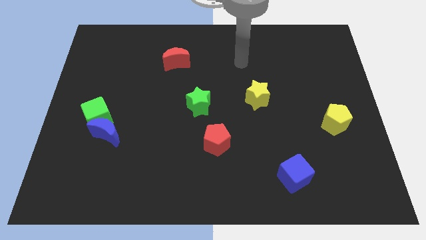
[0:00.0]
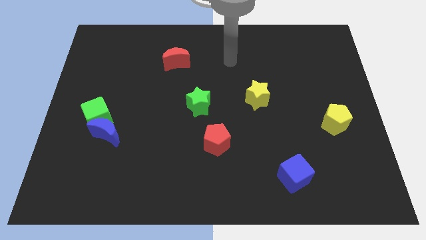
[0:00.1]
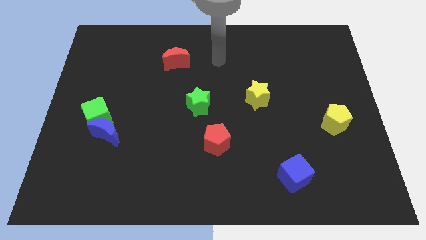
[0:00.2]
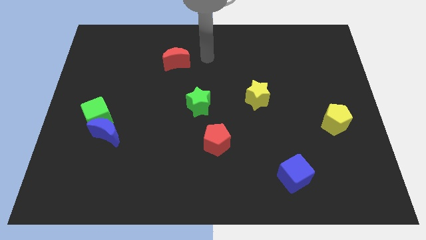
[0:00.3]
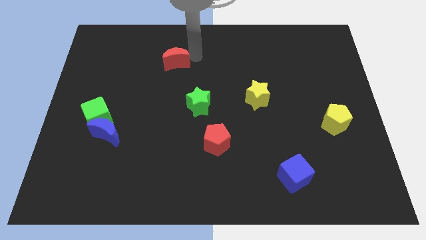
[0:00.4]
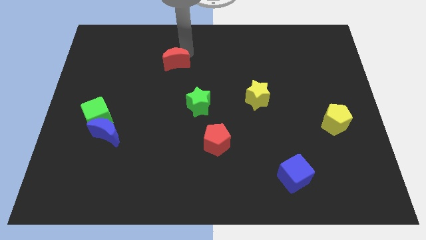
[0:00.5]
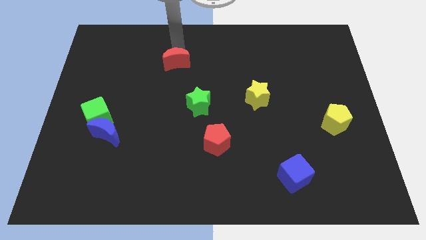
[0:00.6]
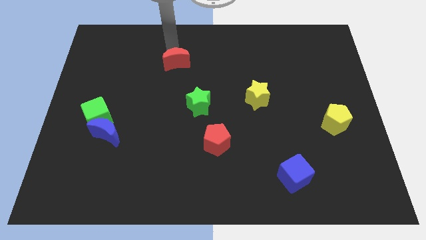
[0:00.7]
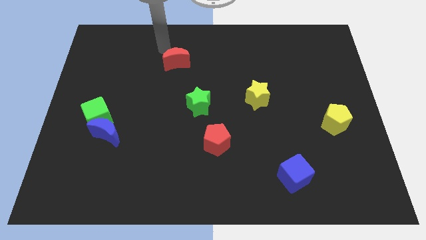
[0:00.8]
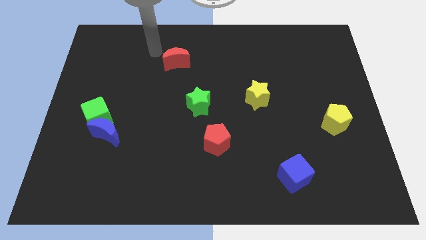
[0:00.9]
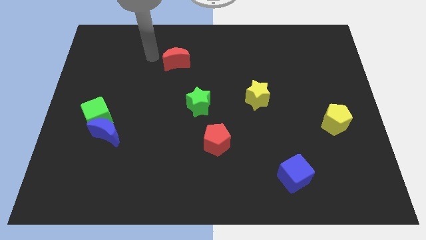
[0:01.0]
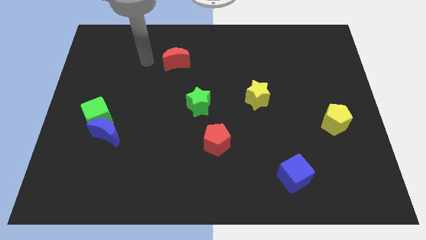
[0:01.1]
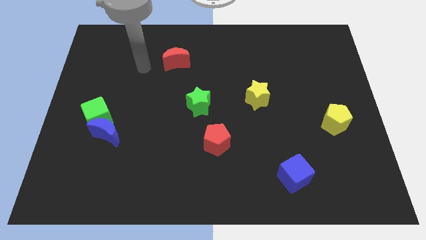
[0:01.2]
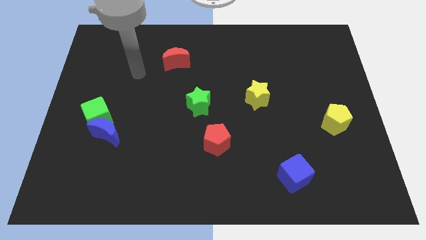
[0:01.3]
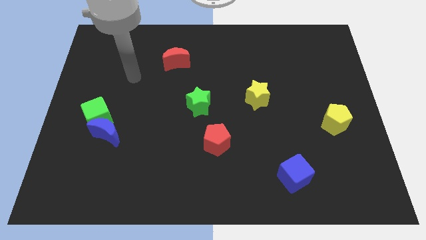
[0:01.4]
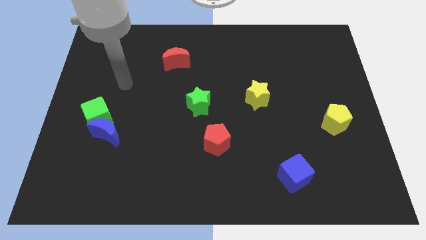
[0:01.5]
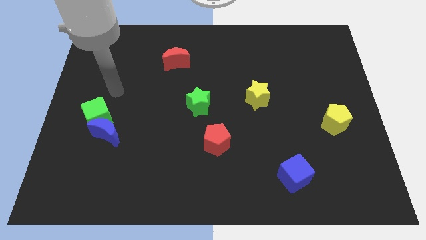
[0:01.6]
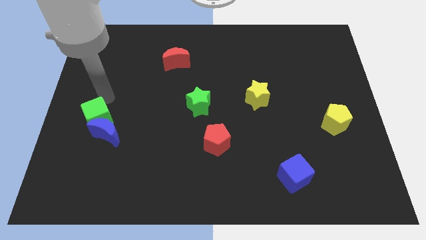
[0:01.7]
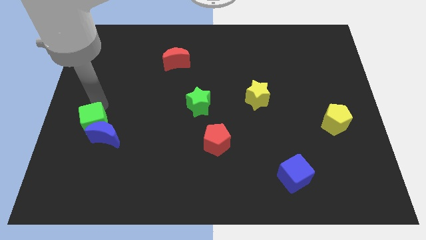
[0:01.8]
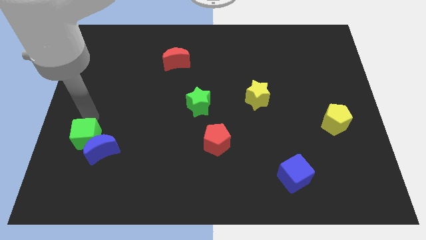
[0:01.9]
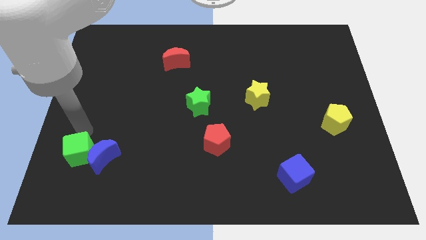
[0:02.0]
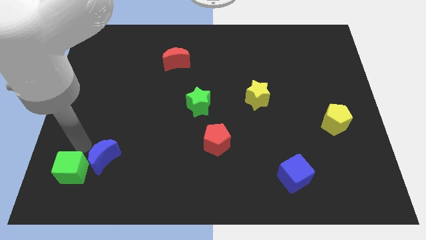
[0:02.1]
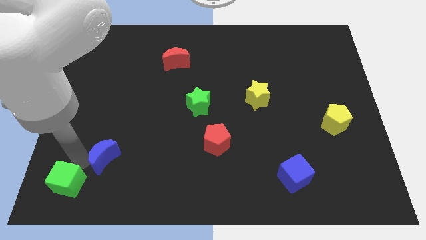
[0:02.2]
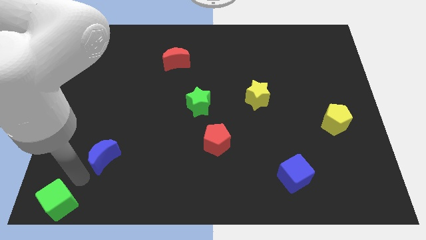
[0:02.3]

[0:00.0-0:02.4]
separate the blue moon from the green cube

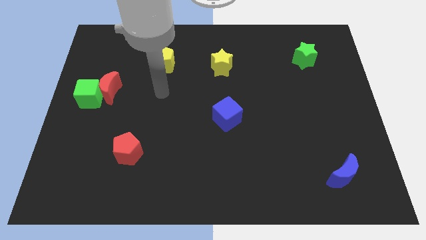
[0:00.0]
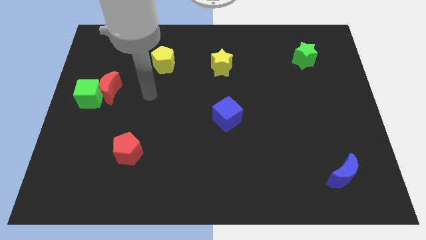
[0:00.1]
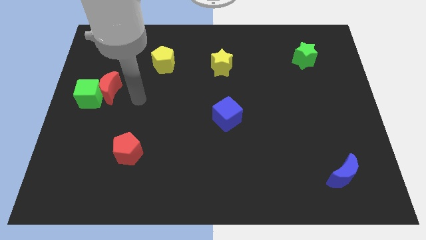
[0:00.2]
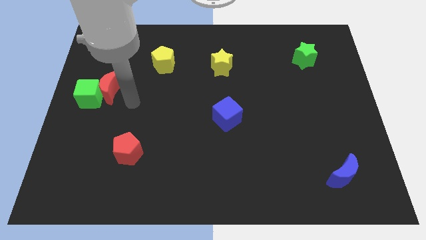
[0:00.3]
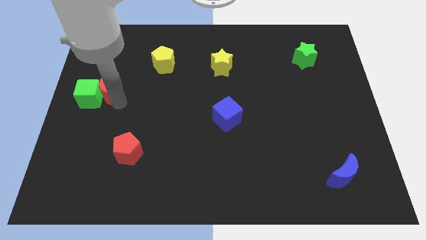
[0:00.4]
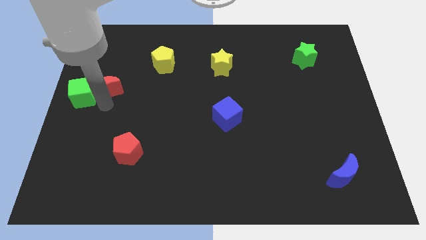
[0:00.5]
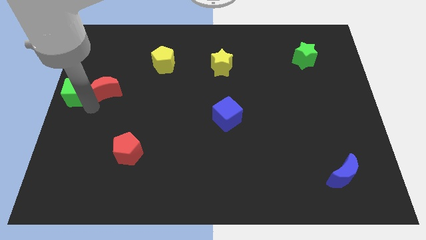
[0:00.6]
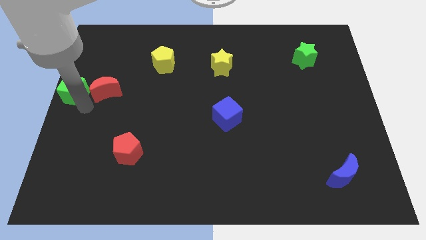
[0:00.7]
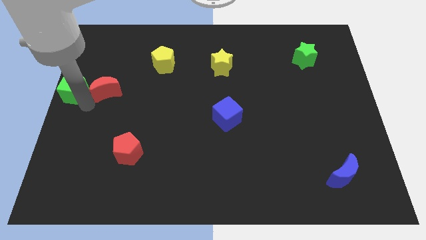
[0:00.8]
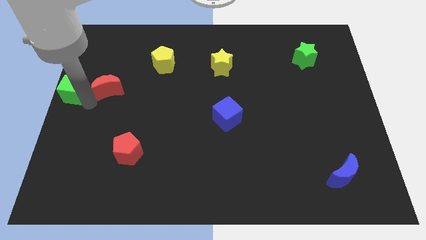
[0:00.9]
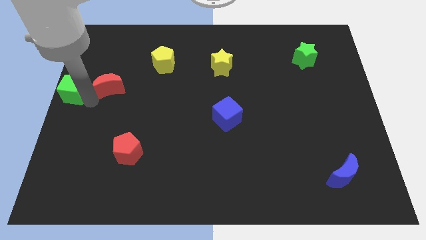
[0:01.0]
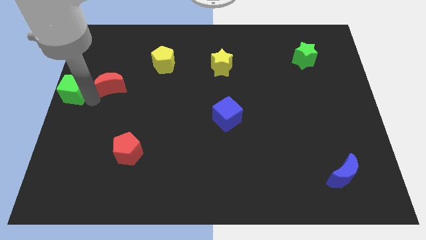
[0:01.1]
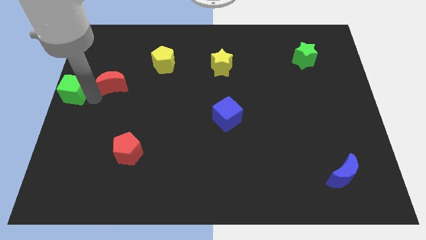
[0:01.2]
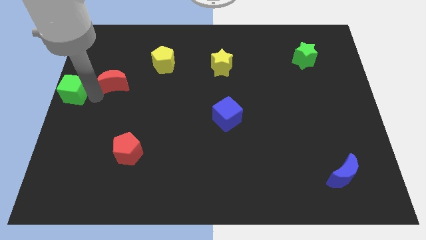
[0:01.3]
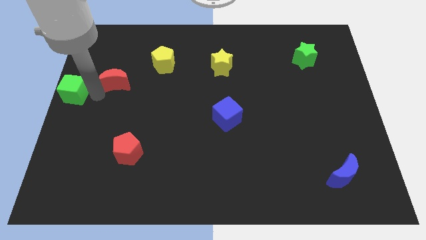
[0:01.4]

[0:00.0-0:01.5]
separate the red moon from the green cube

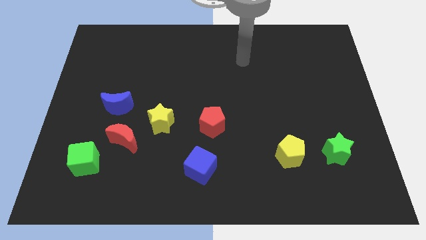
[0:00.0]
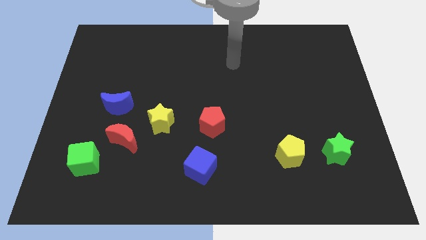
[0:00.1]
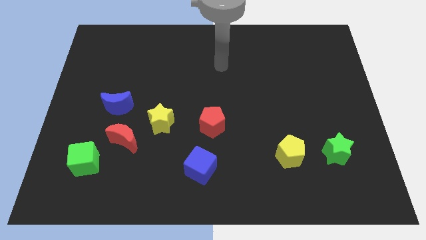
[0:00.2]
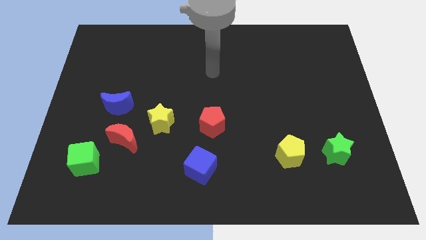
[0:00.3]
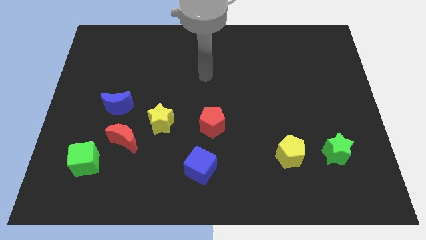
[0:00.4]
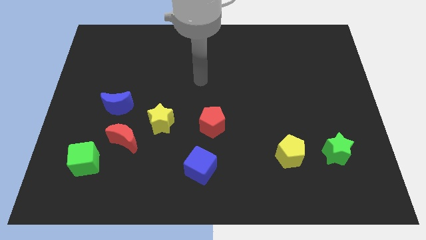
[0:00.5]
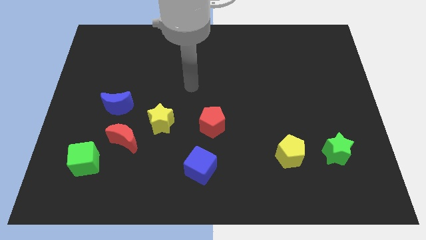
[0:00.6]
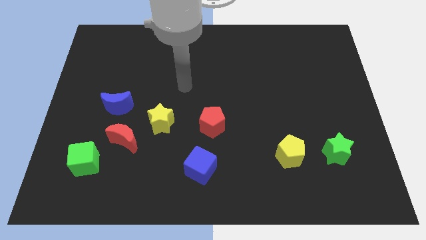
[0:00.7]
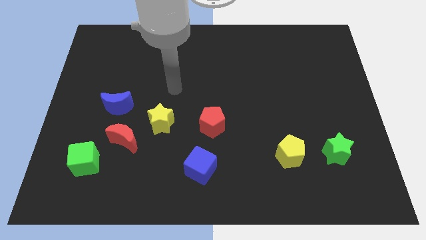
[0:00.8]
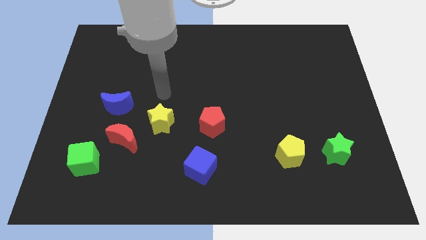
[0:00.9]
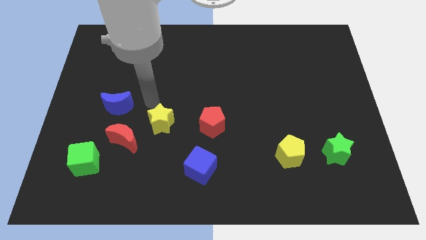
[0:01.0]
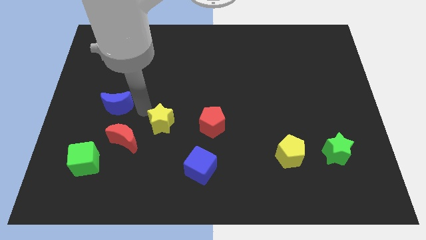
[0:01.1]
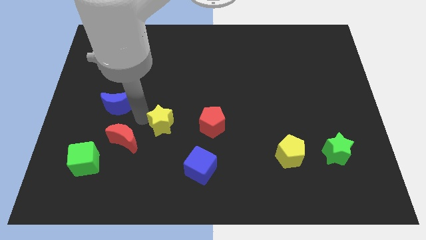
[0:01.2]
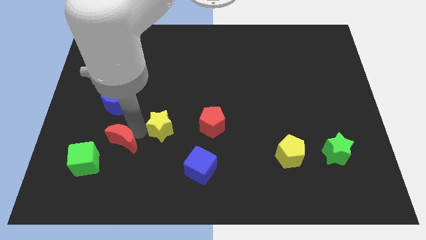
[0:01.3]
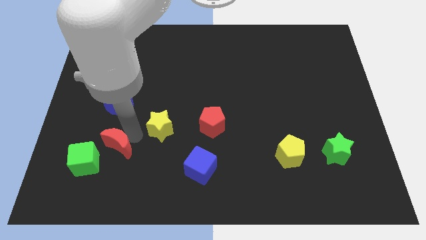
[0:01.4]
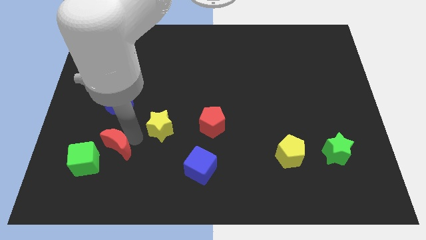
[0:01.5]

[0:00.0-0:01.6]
move the yellow star away from the red moon

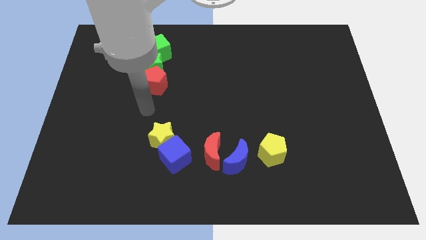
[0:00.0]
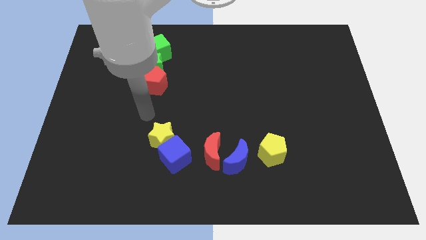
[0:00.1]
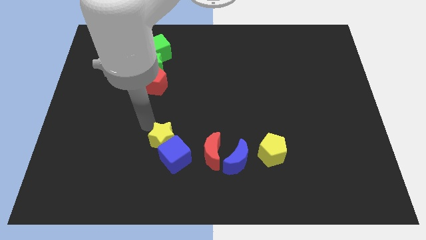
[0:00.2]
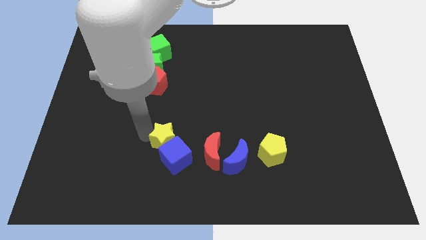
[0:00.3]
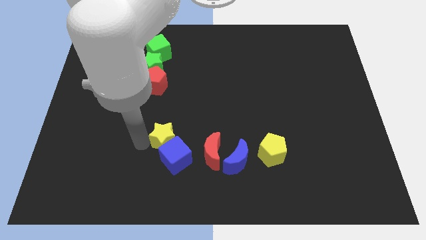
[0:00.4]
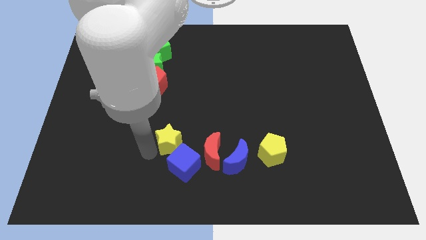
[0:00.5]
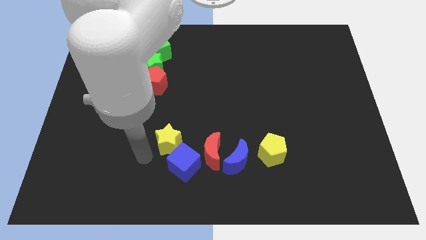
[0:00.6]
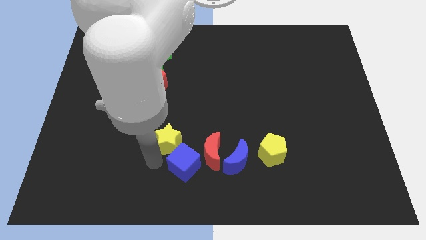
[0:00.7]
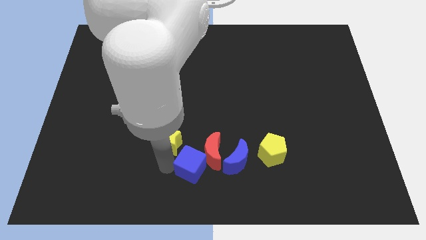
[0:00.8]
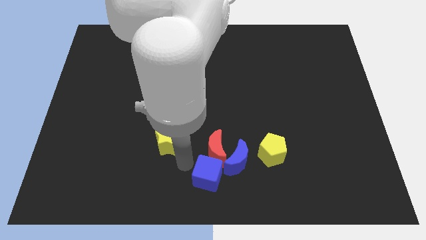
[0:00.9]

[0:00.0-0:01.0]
separate the yellow star from the blue cube

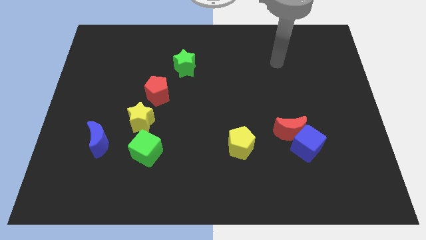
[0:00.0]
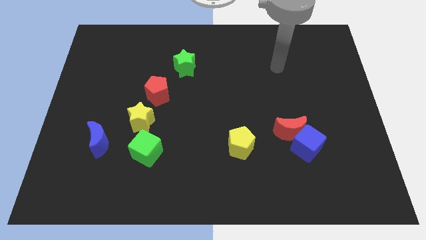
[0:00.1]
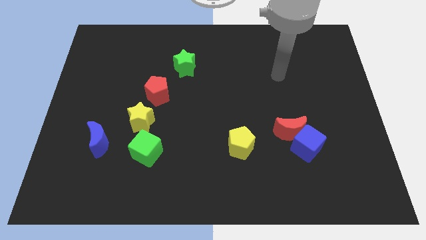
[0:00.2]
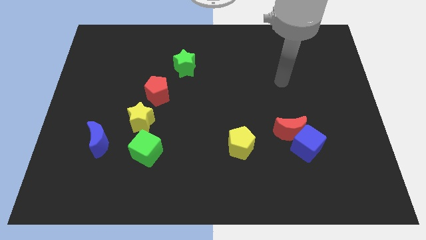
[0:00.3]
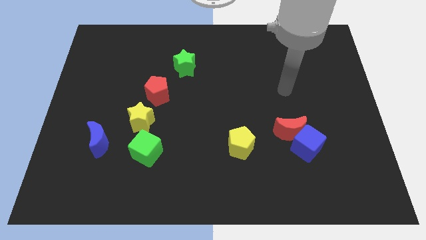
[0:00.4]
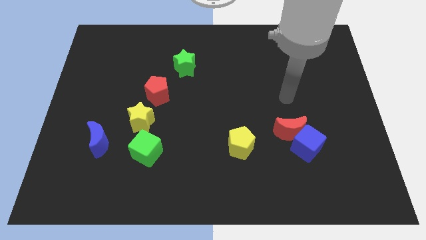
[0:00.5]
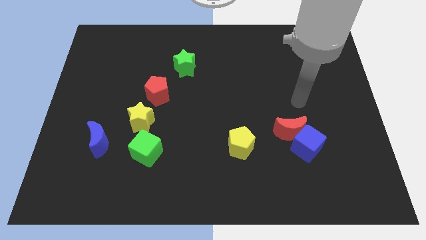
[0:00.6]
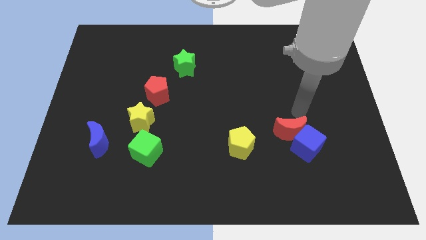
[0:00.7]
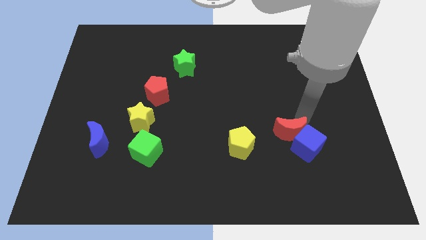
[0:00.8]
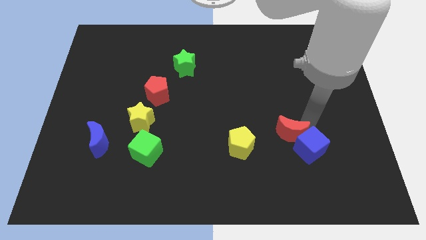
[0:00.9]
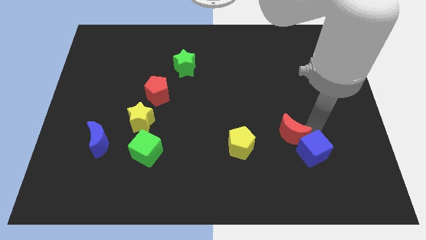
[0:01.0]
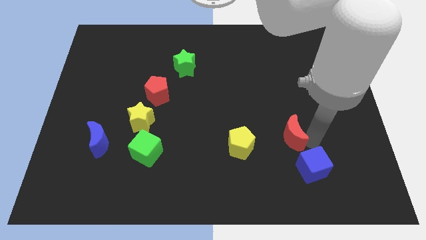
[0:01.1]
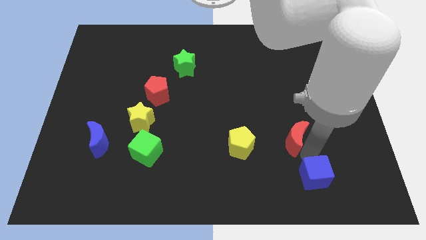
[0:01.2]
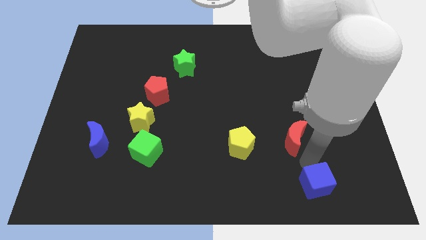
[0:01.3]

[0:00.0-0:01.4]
move the red moon away from the blue cube

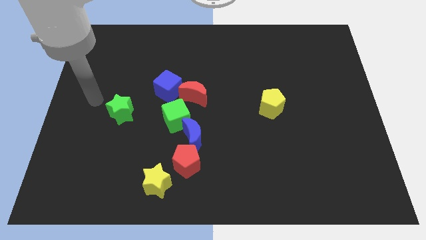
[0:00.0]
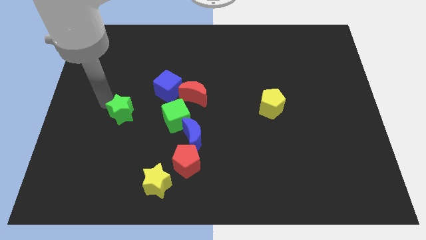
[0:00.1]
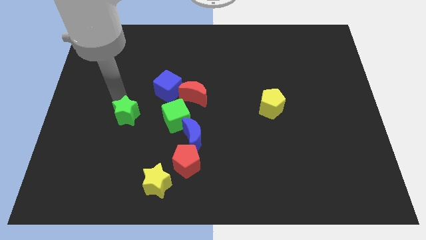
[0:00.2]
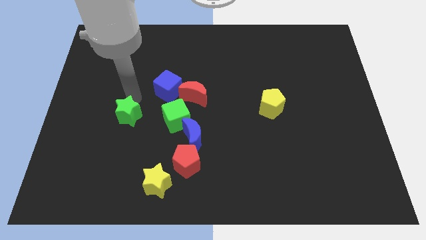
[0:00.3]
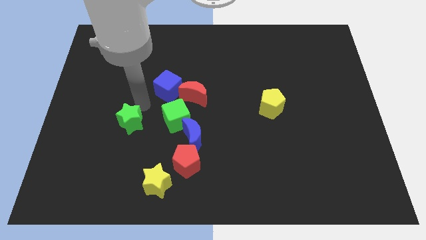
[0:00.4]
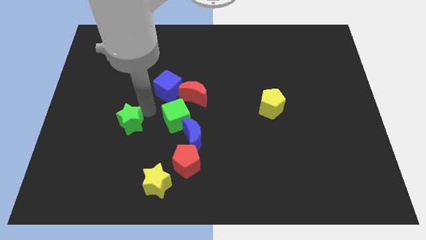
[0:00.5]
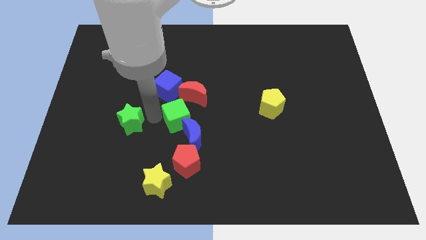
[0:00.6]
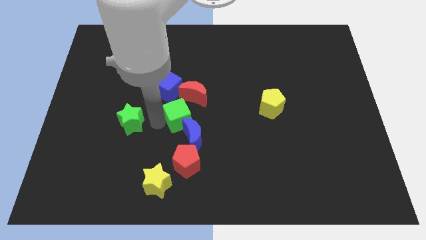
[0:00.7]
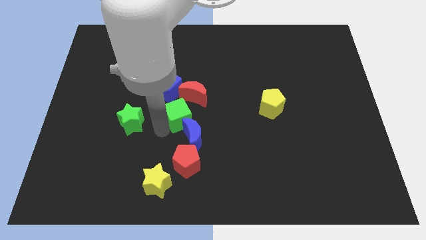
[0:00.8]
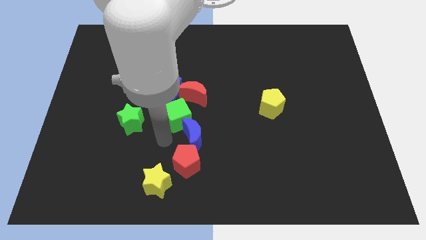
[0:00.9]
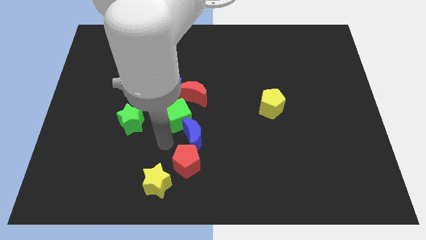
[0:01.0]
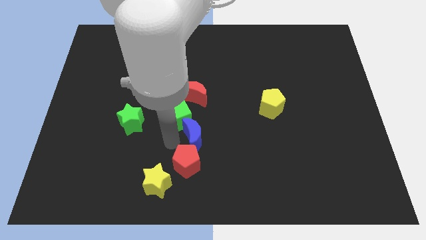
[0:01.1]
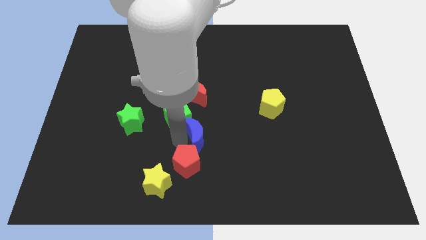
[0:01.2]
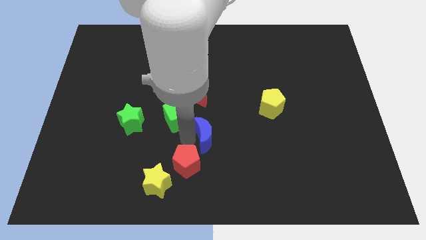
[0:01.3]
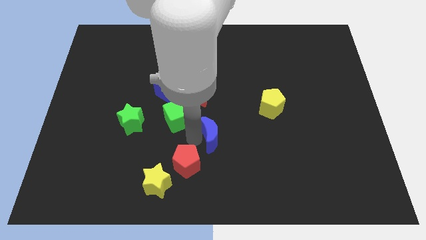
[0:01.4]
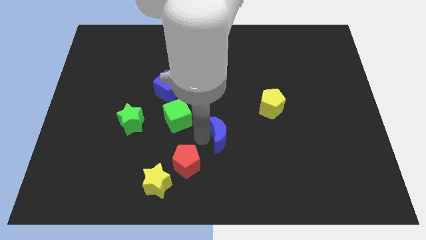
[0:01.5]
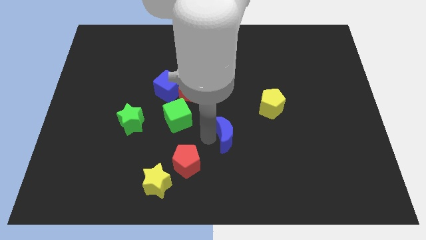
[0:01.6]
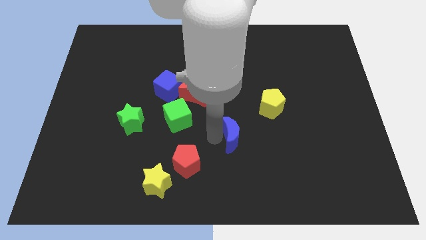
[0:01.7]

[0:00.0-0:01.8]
pull the blue moon apart from the red pentagon and green cube
